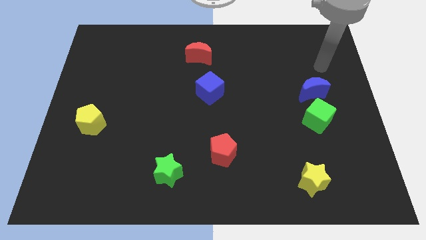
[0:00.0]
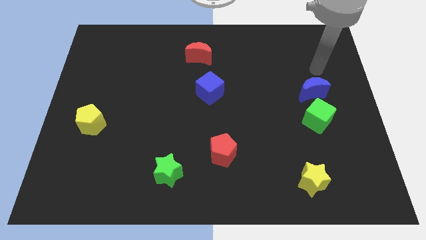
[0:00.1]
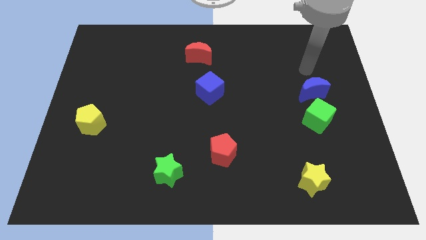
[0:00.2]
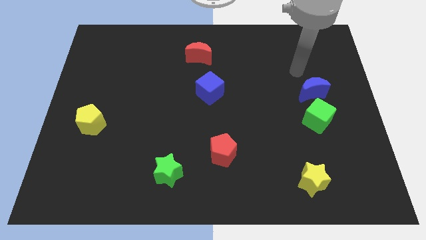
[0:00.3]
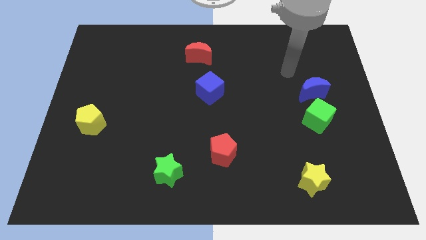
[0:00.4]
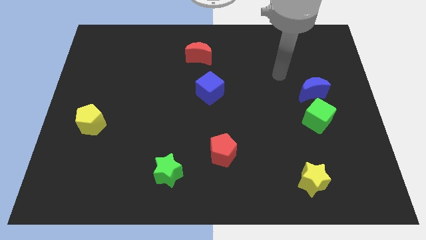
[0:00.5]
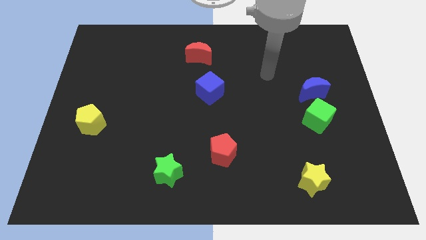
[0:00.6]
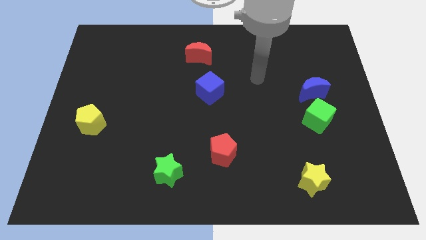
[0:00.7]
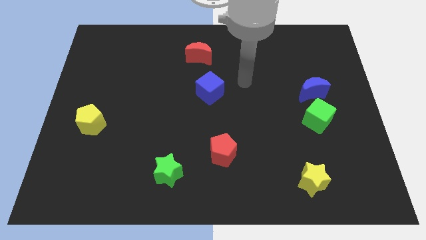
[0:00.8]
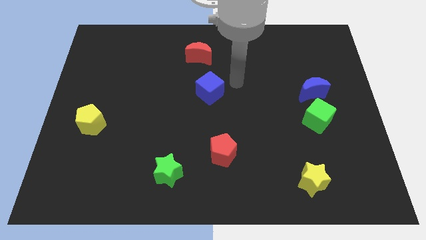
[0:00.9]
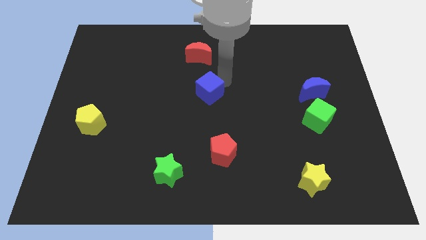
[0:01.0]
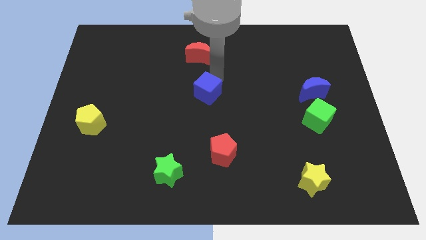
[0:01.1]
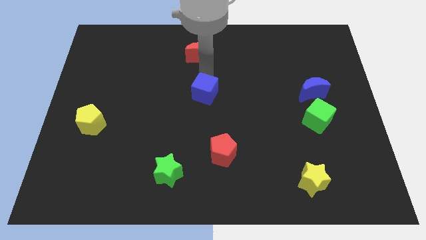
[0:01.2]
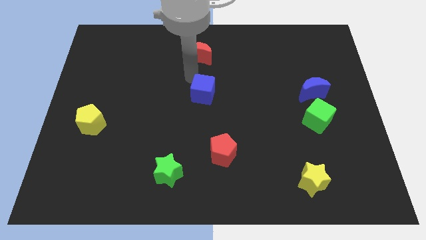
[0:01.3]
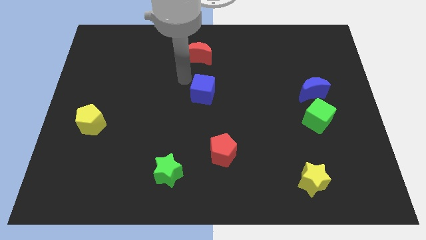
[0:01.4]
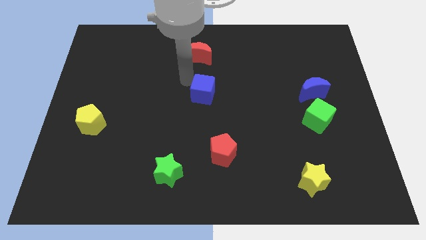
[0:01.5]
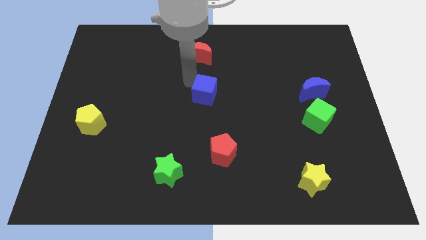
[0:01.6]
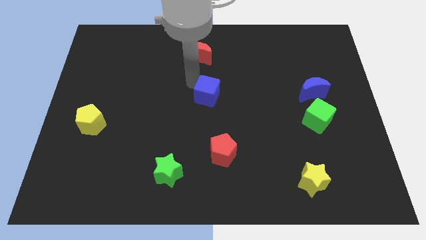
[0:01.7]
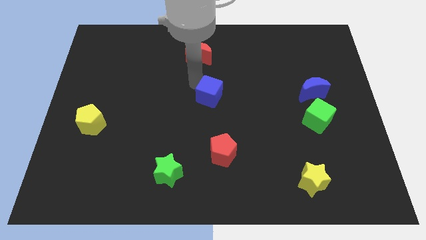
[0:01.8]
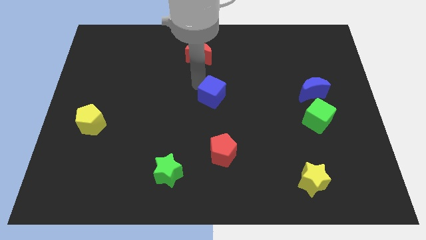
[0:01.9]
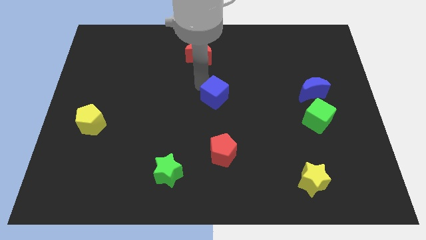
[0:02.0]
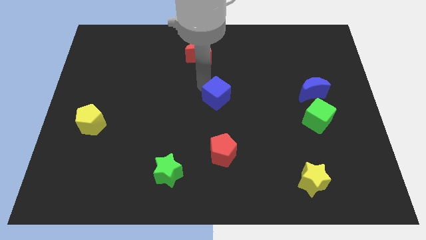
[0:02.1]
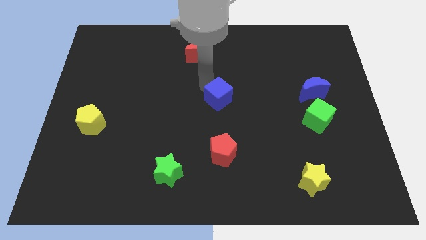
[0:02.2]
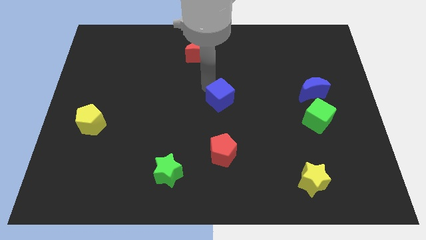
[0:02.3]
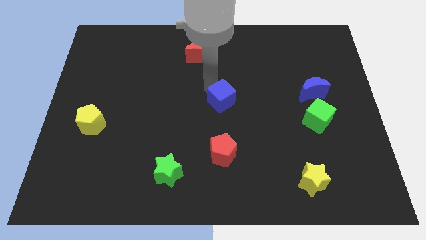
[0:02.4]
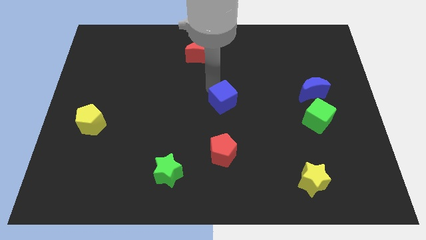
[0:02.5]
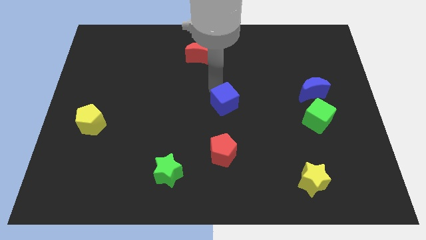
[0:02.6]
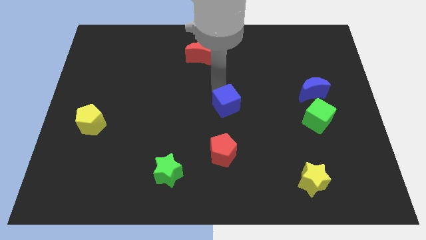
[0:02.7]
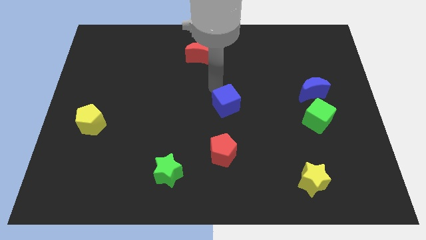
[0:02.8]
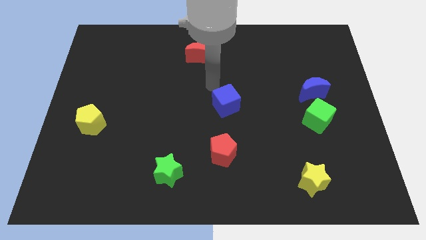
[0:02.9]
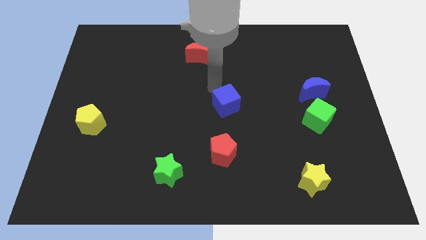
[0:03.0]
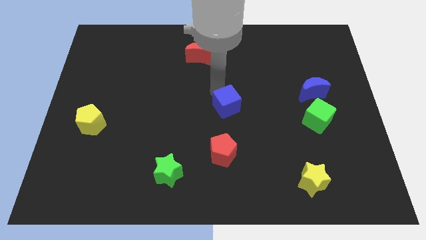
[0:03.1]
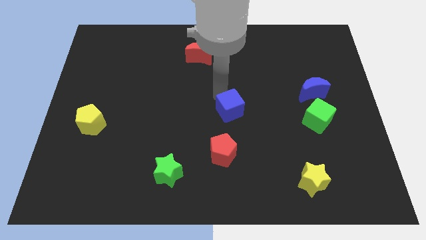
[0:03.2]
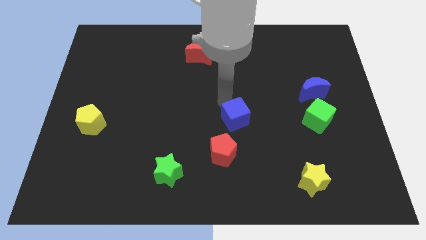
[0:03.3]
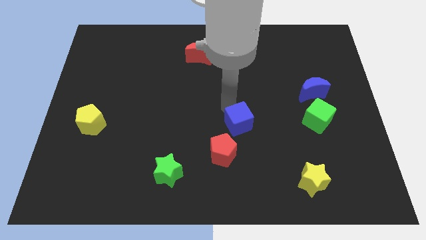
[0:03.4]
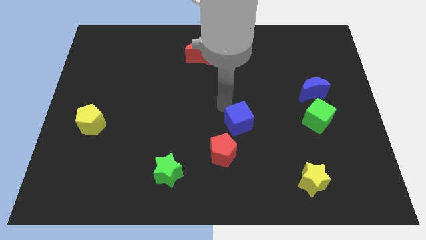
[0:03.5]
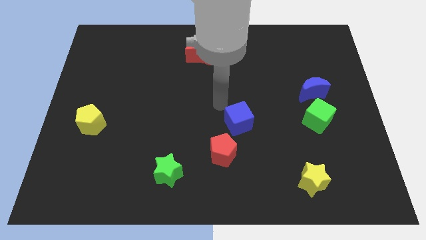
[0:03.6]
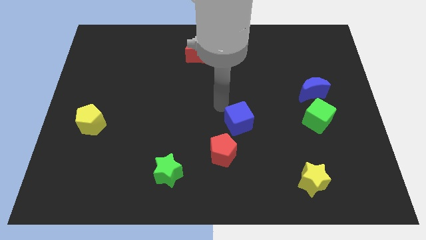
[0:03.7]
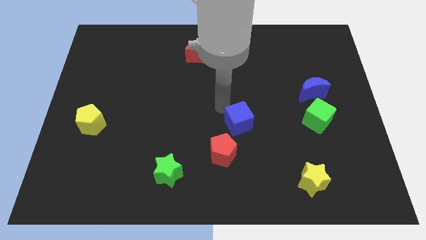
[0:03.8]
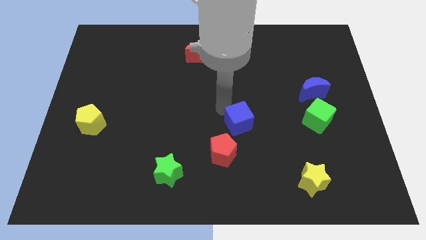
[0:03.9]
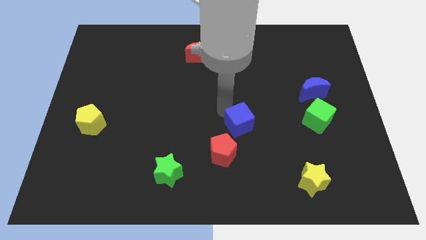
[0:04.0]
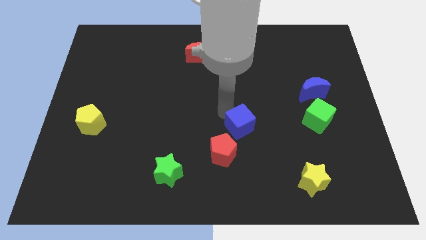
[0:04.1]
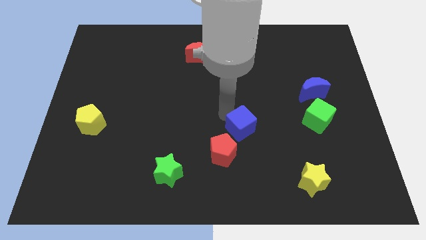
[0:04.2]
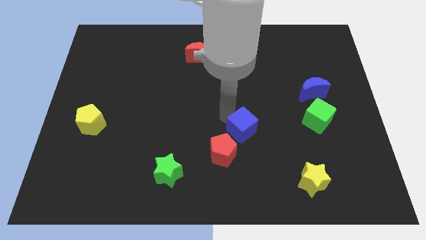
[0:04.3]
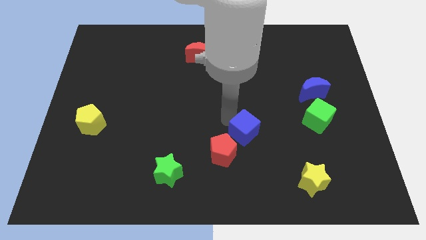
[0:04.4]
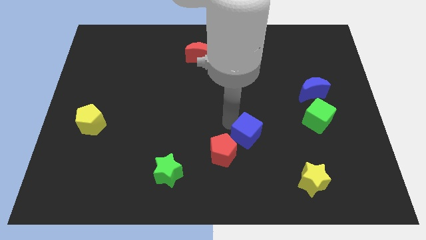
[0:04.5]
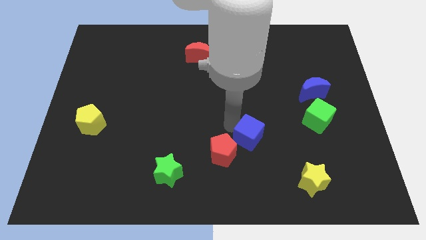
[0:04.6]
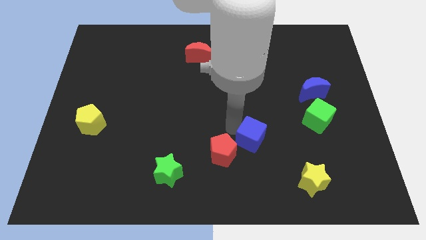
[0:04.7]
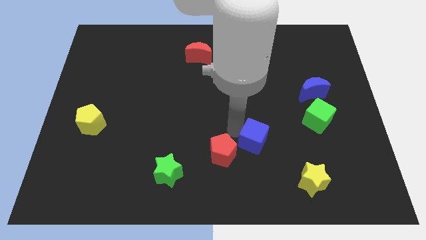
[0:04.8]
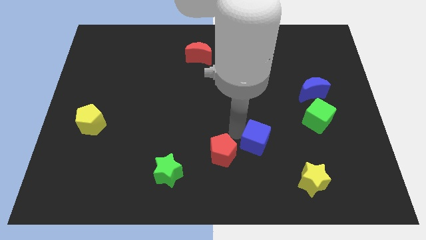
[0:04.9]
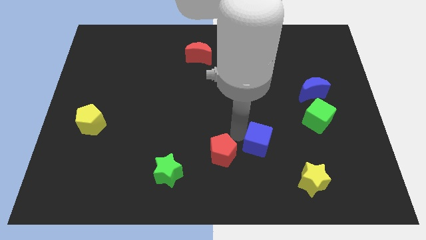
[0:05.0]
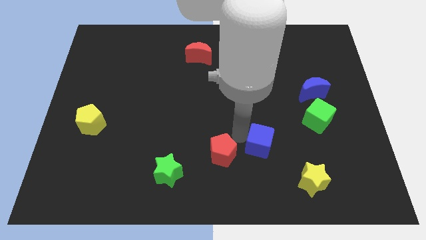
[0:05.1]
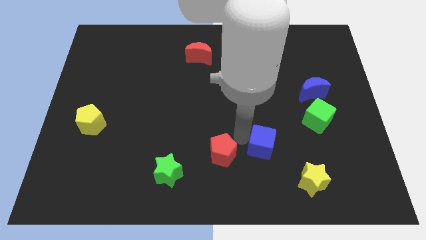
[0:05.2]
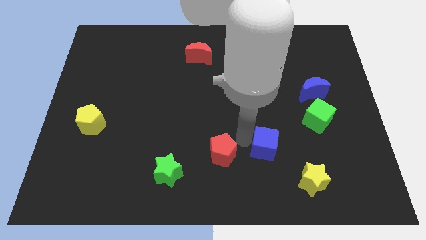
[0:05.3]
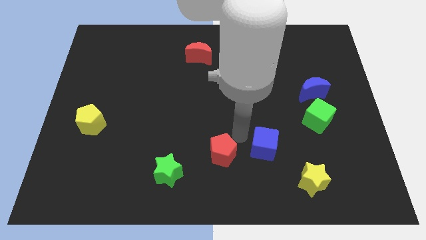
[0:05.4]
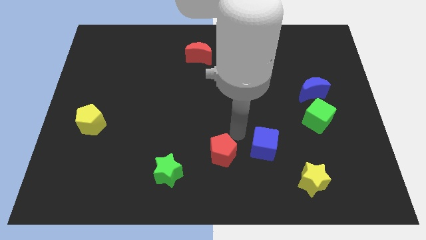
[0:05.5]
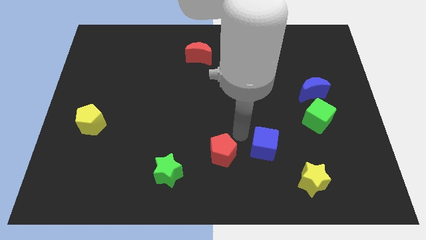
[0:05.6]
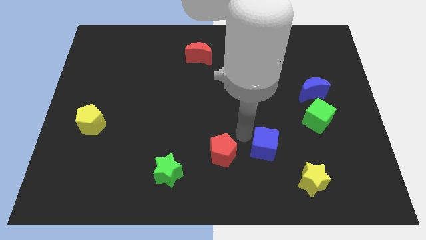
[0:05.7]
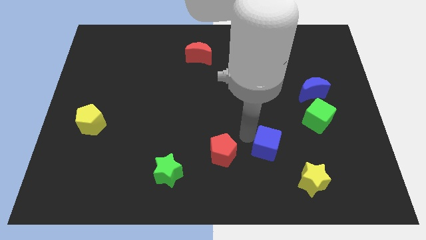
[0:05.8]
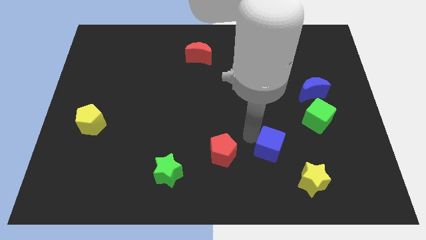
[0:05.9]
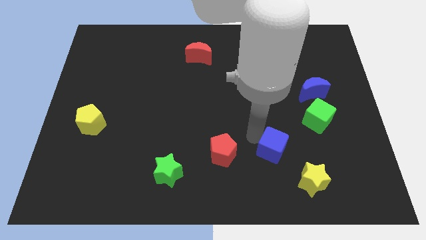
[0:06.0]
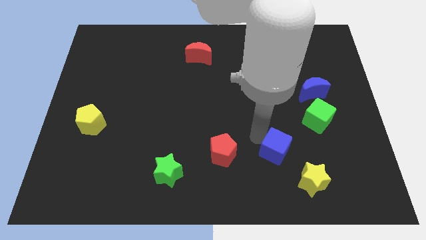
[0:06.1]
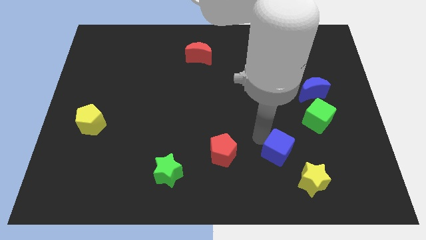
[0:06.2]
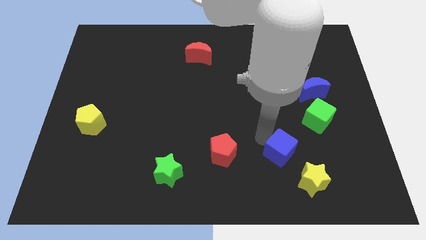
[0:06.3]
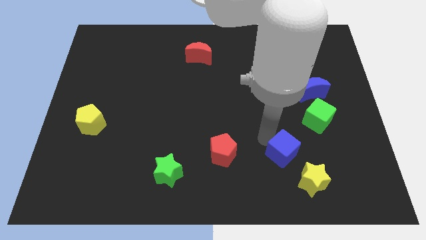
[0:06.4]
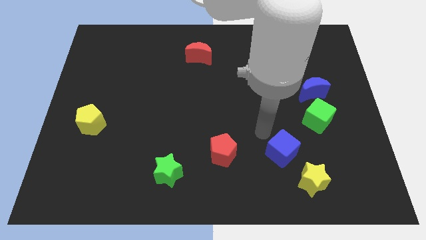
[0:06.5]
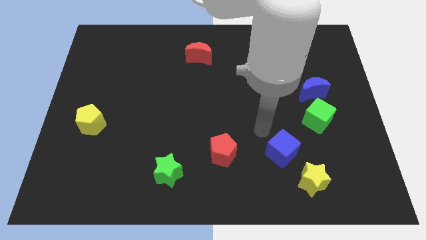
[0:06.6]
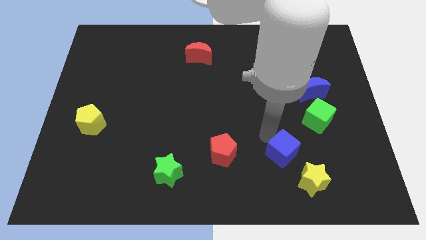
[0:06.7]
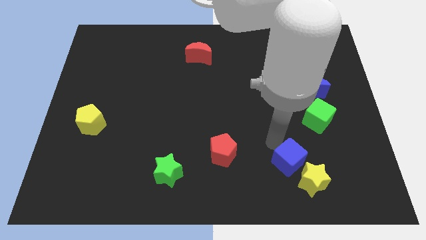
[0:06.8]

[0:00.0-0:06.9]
move the blue cube to the yellow star

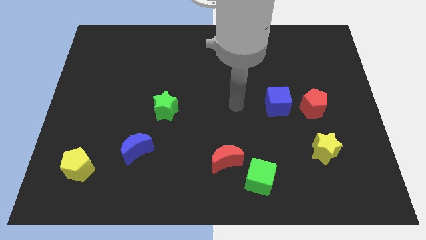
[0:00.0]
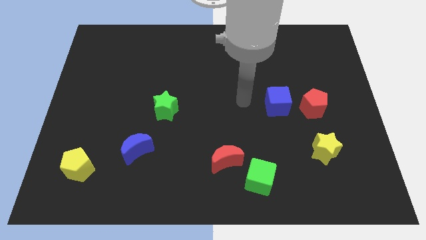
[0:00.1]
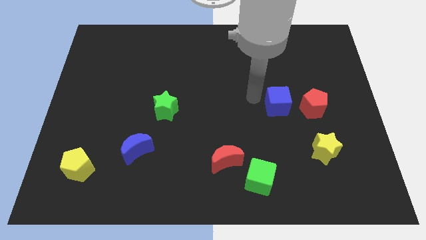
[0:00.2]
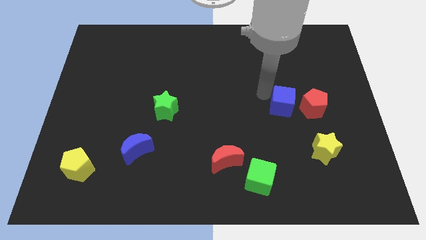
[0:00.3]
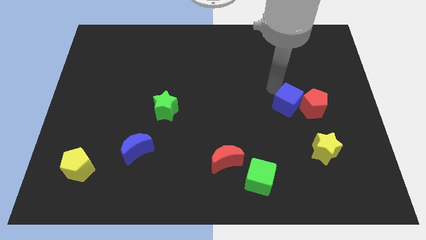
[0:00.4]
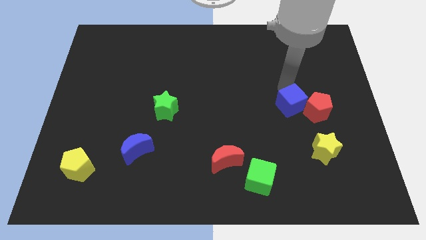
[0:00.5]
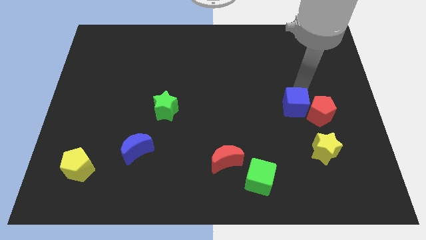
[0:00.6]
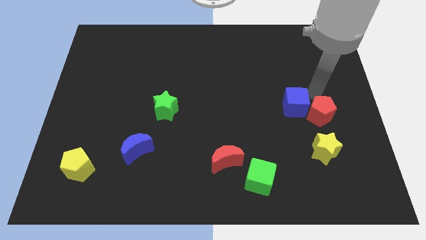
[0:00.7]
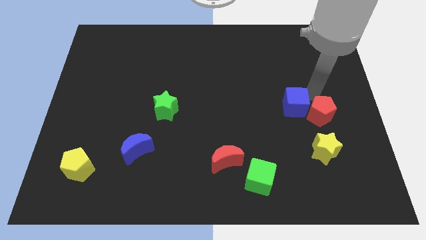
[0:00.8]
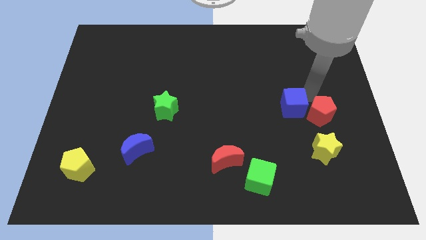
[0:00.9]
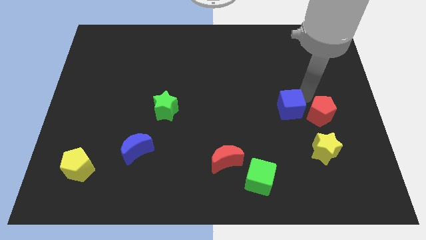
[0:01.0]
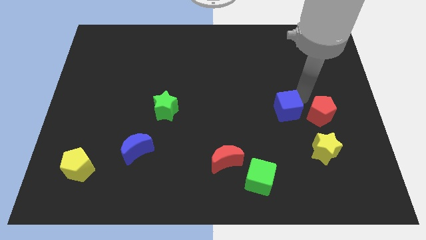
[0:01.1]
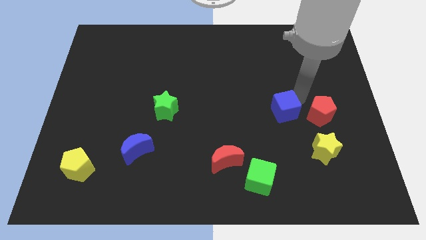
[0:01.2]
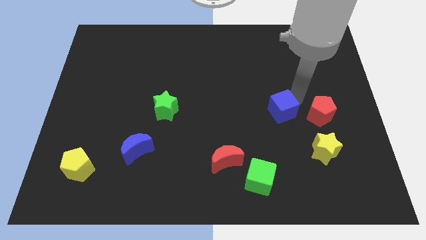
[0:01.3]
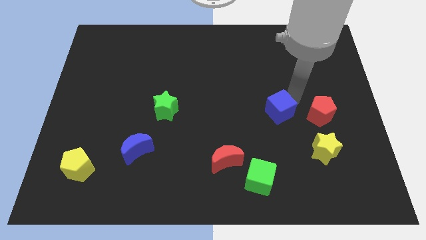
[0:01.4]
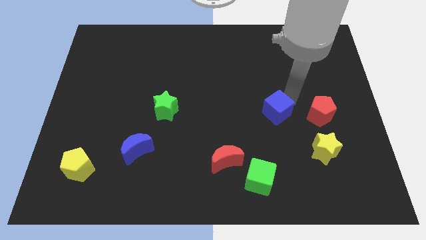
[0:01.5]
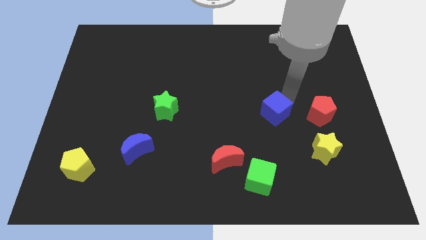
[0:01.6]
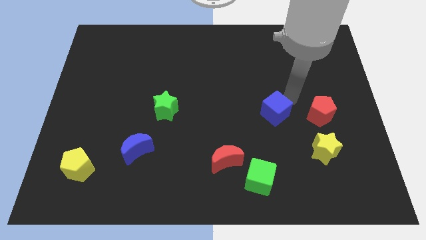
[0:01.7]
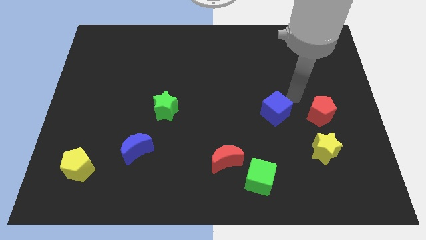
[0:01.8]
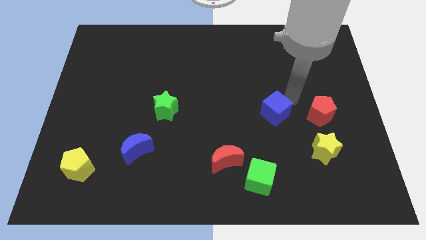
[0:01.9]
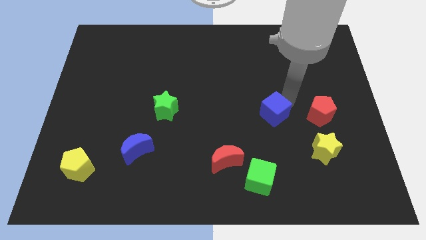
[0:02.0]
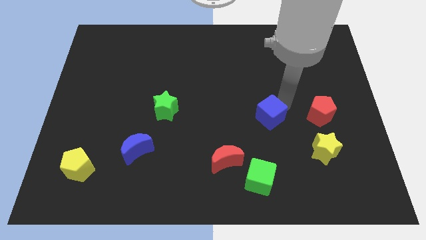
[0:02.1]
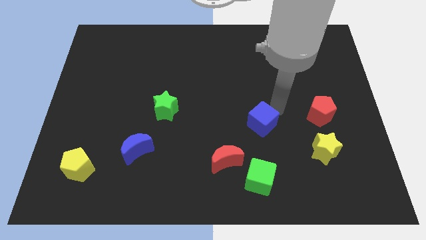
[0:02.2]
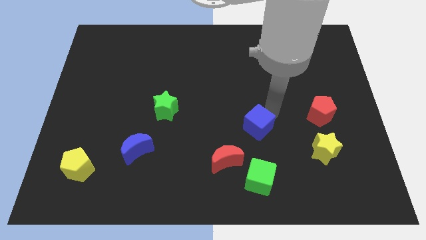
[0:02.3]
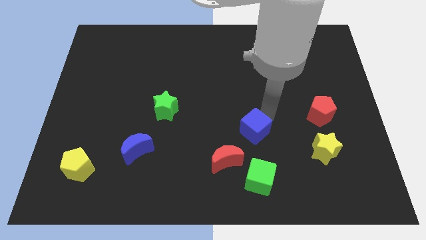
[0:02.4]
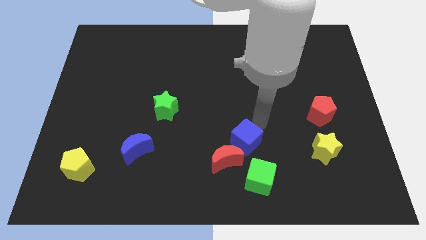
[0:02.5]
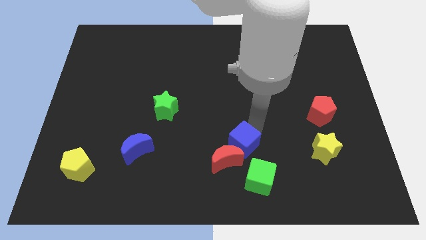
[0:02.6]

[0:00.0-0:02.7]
move the blue cube next to the red moon
